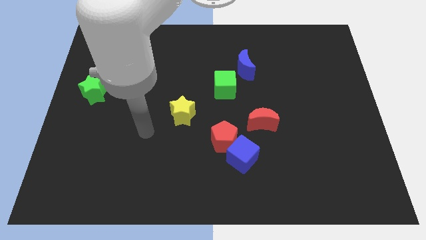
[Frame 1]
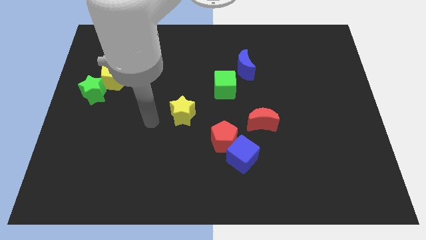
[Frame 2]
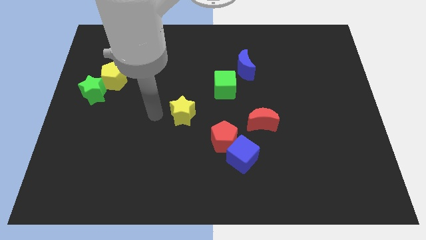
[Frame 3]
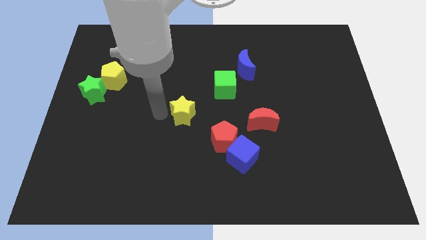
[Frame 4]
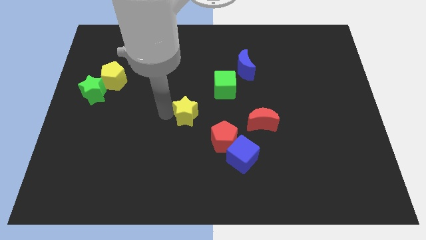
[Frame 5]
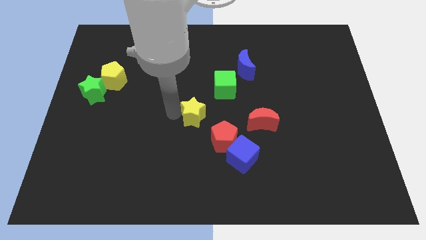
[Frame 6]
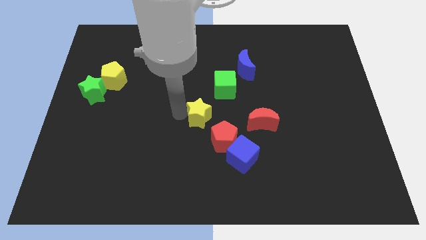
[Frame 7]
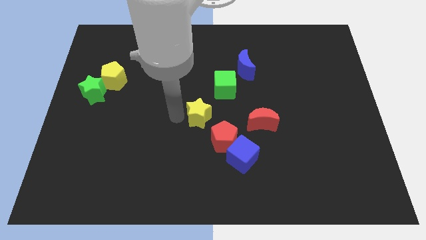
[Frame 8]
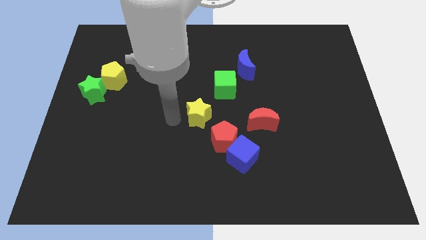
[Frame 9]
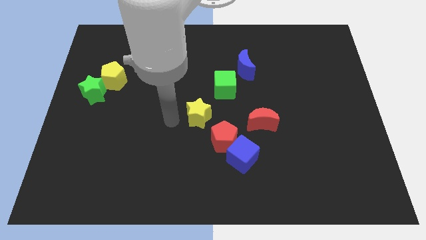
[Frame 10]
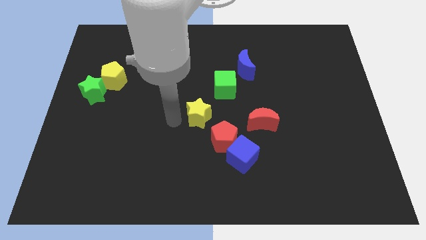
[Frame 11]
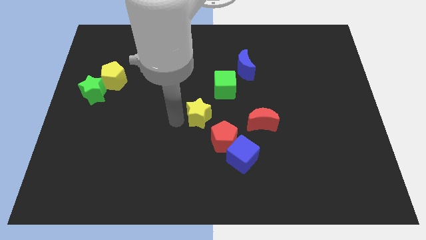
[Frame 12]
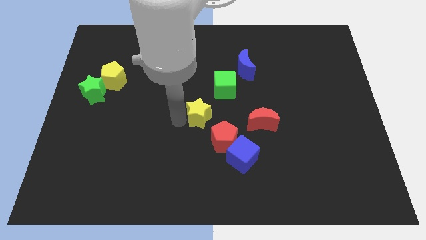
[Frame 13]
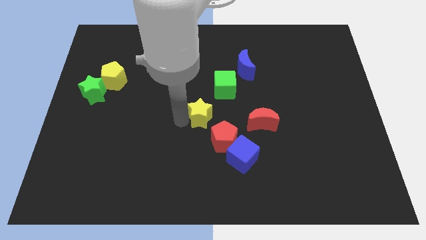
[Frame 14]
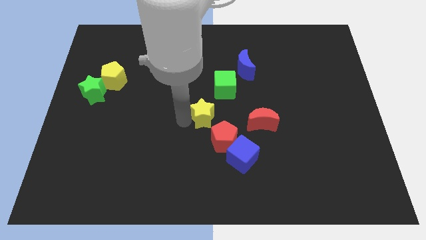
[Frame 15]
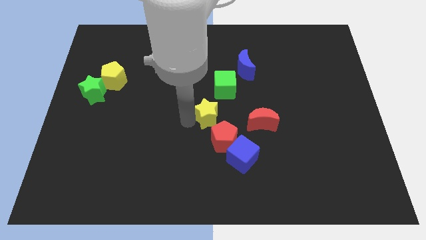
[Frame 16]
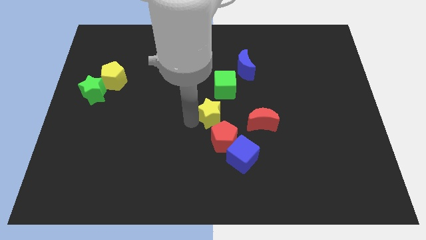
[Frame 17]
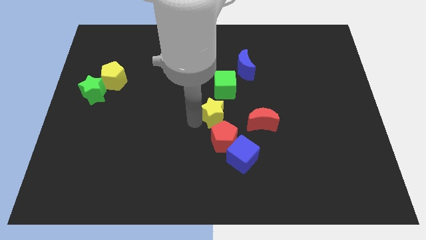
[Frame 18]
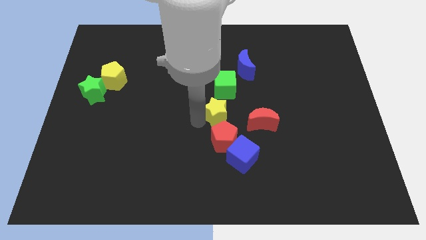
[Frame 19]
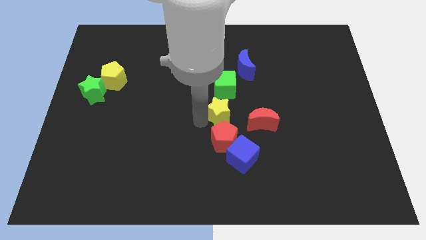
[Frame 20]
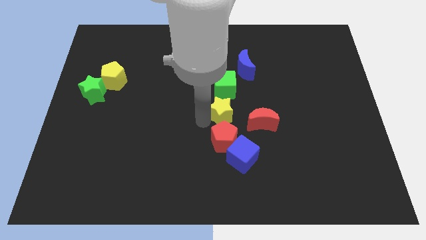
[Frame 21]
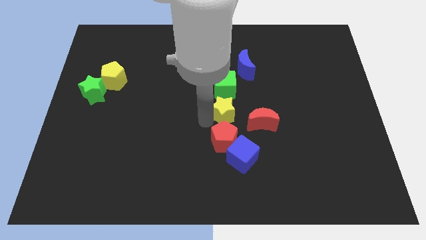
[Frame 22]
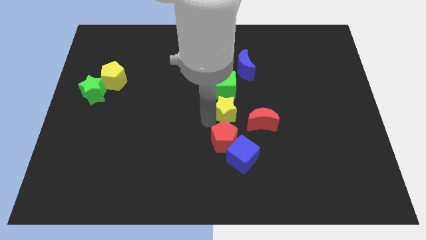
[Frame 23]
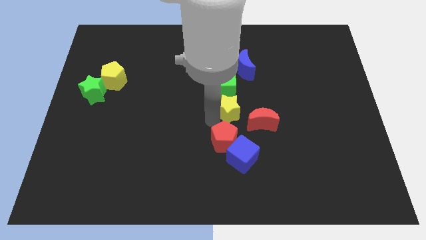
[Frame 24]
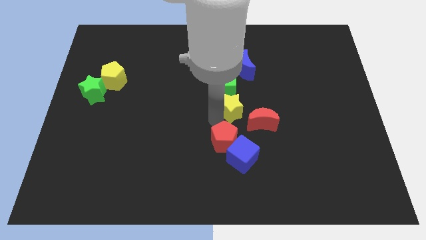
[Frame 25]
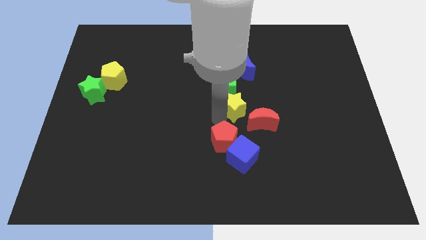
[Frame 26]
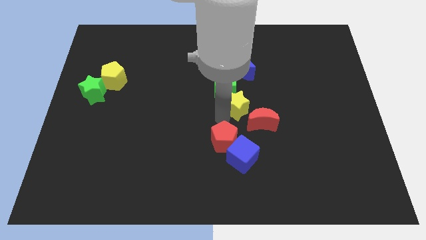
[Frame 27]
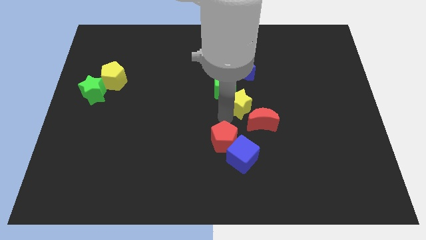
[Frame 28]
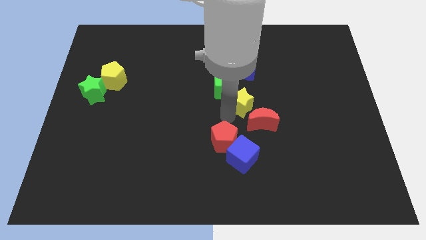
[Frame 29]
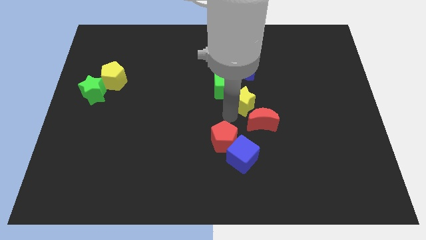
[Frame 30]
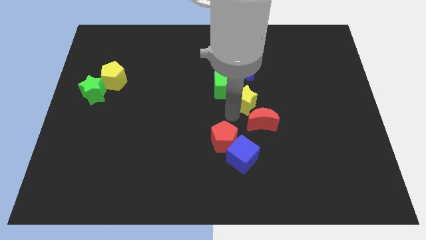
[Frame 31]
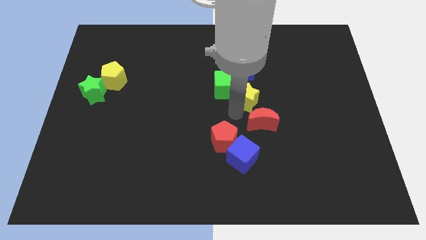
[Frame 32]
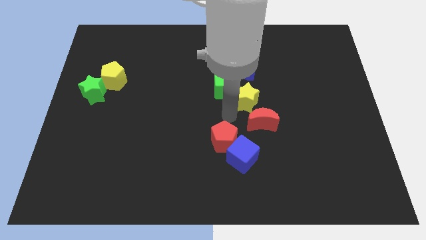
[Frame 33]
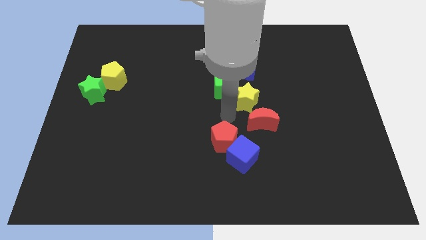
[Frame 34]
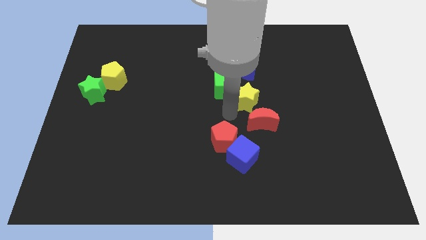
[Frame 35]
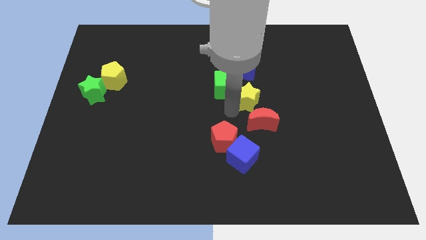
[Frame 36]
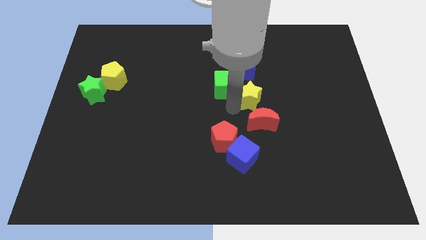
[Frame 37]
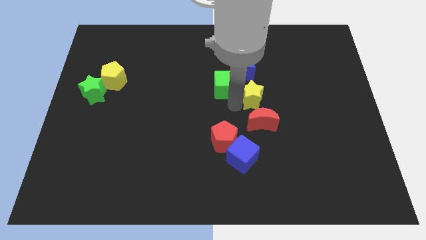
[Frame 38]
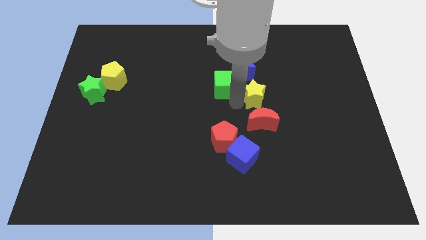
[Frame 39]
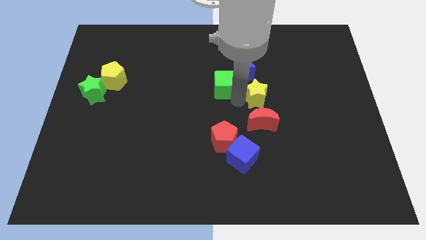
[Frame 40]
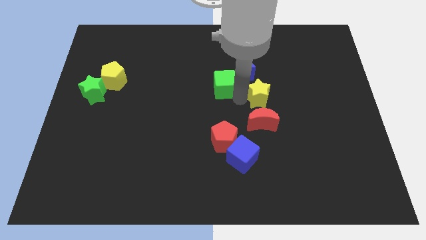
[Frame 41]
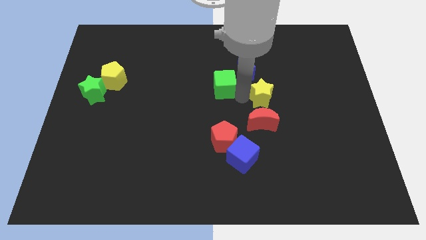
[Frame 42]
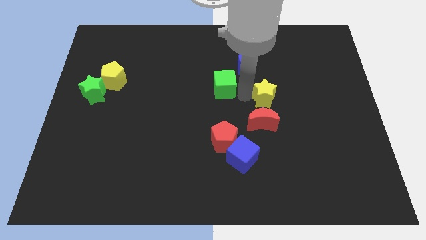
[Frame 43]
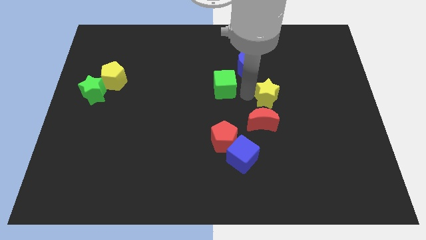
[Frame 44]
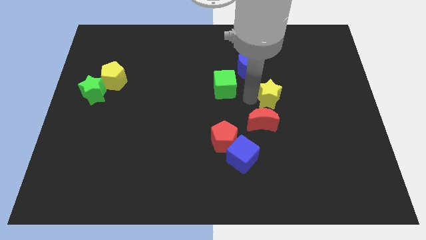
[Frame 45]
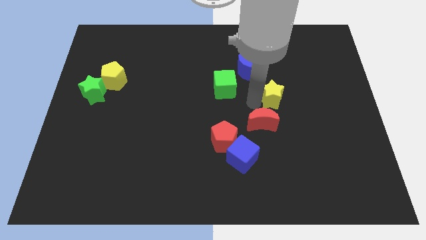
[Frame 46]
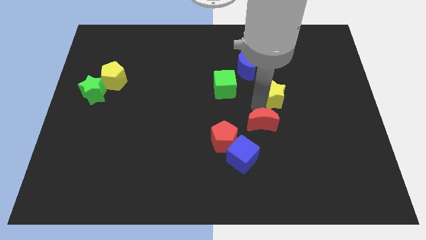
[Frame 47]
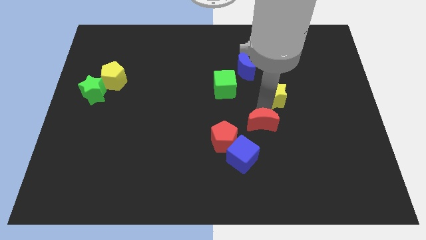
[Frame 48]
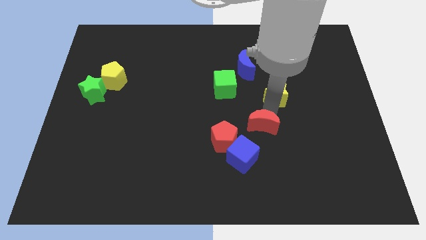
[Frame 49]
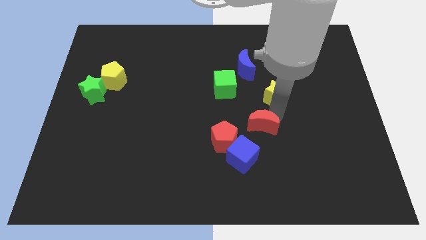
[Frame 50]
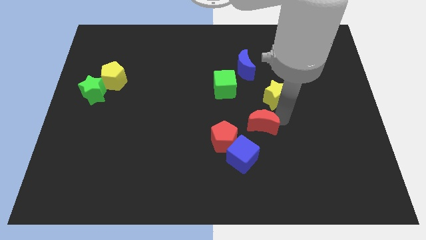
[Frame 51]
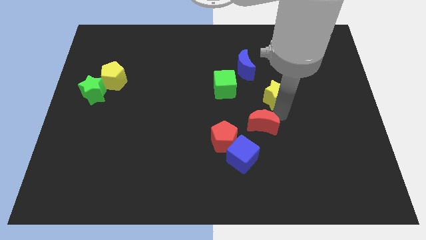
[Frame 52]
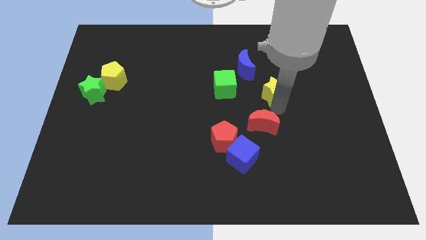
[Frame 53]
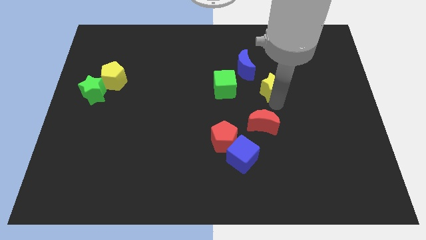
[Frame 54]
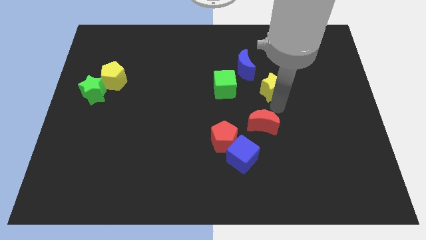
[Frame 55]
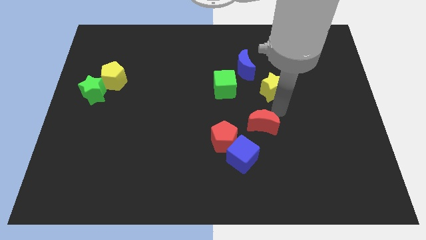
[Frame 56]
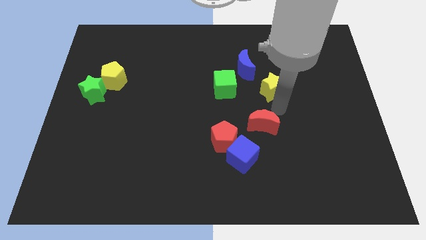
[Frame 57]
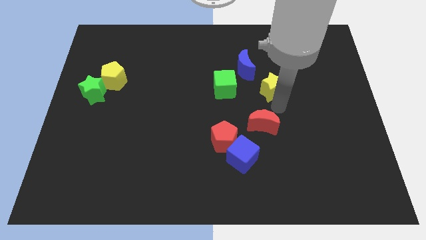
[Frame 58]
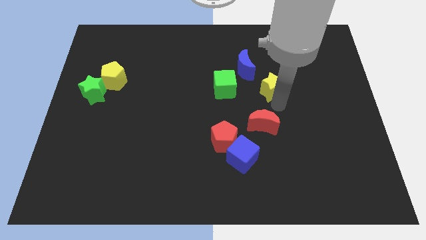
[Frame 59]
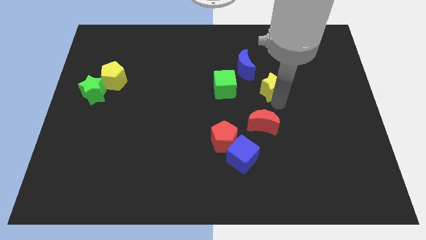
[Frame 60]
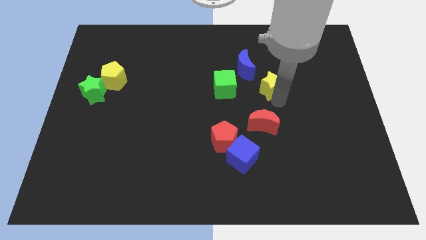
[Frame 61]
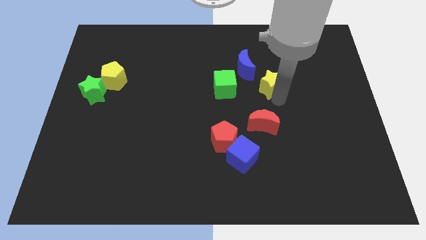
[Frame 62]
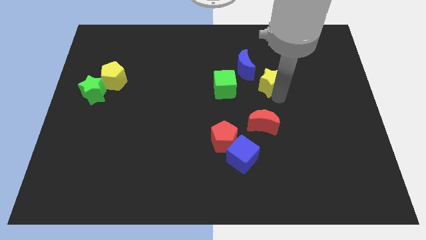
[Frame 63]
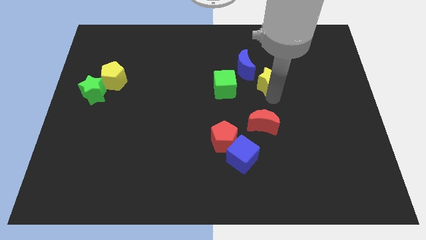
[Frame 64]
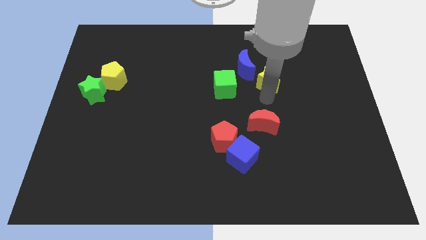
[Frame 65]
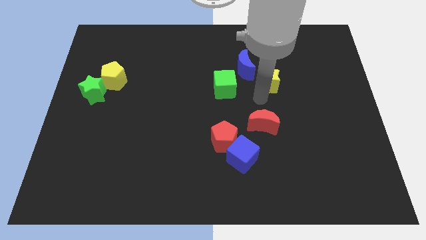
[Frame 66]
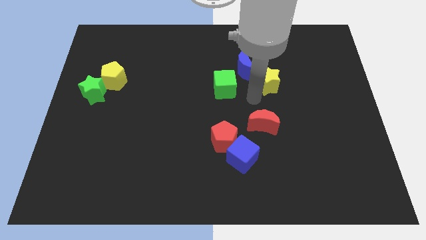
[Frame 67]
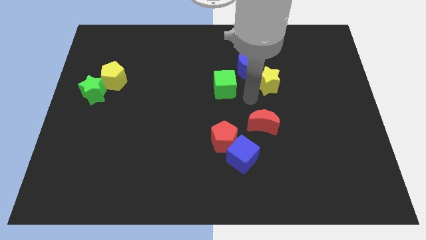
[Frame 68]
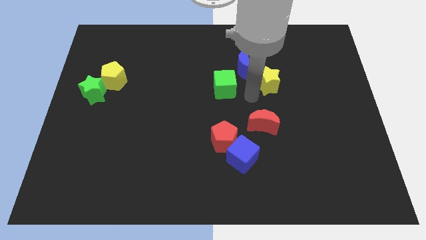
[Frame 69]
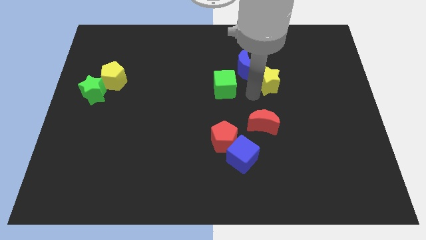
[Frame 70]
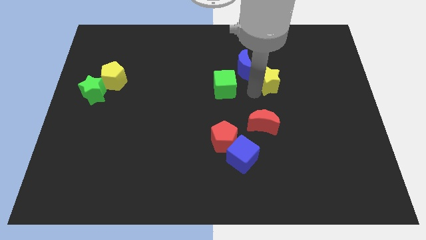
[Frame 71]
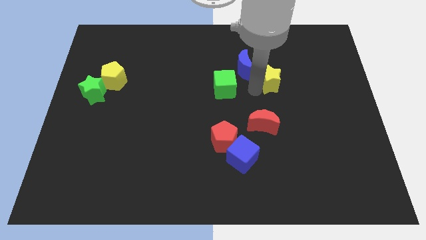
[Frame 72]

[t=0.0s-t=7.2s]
push the yellow star to the right of the blue moon
